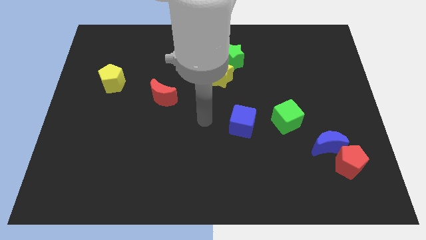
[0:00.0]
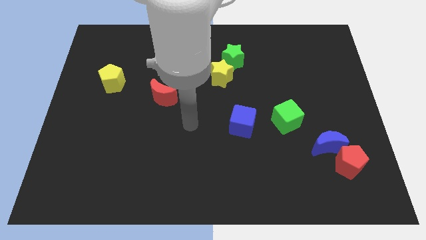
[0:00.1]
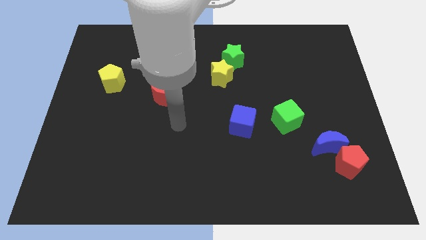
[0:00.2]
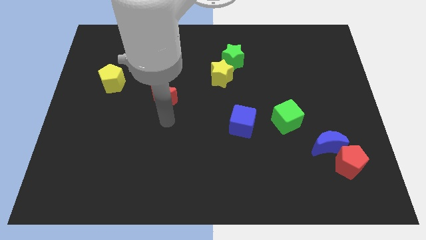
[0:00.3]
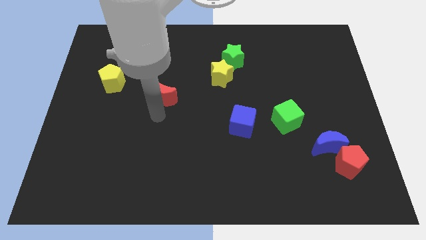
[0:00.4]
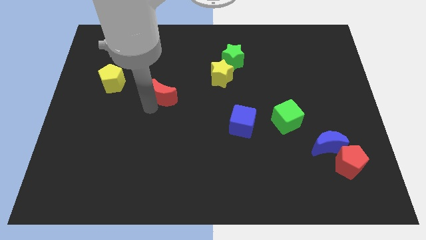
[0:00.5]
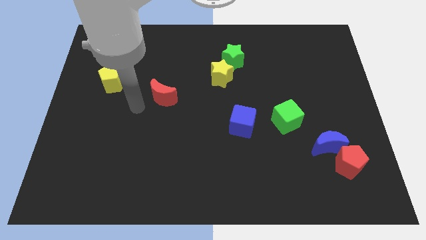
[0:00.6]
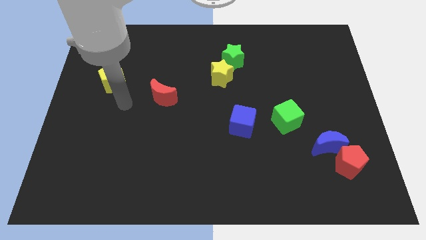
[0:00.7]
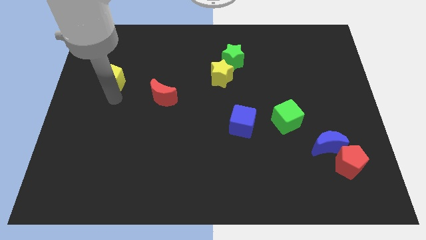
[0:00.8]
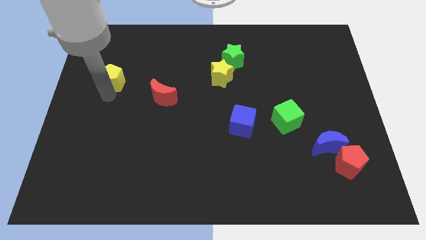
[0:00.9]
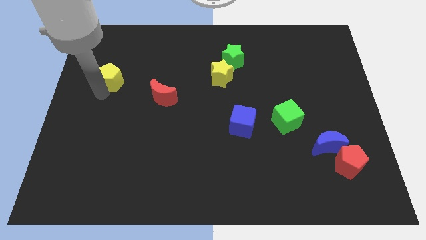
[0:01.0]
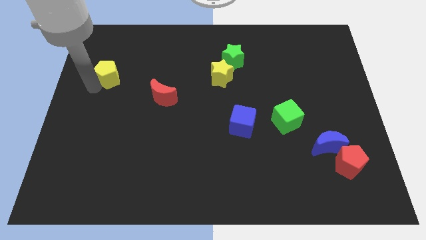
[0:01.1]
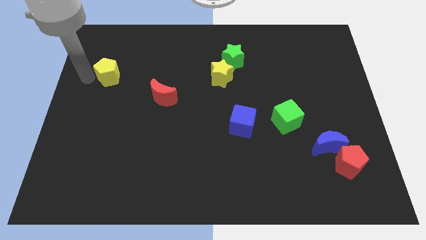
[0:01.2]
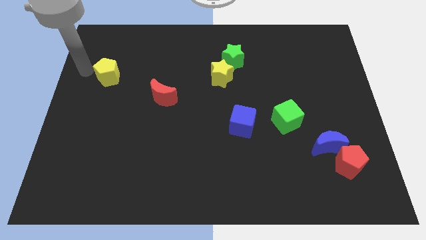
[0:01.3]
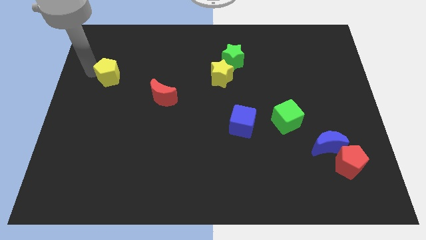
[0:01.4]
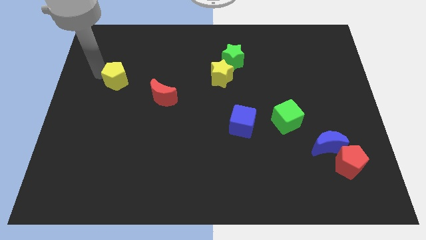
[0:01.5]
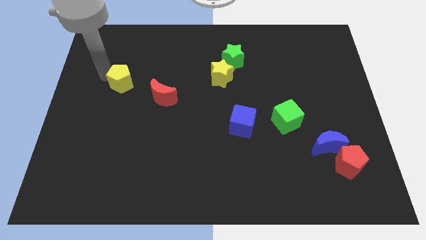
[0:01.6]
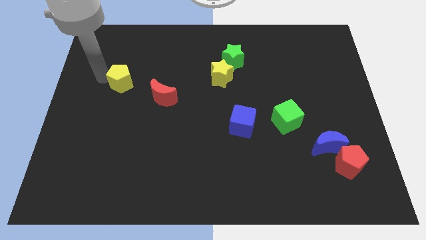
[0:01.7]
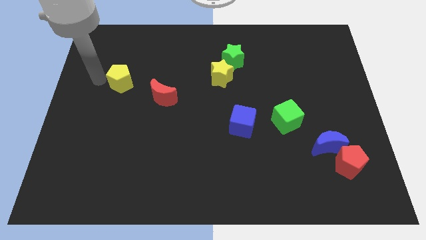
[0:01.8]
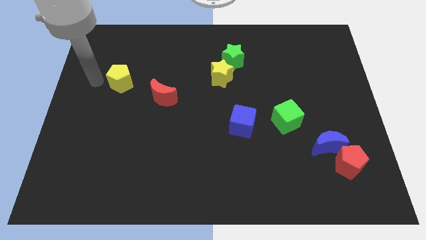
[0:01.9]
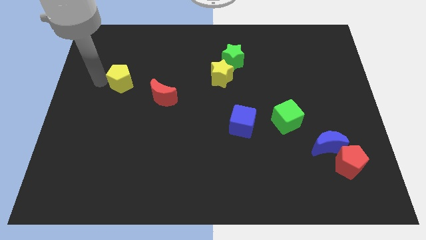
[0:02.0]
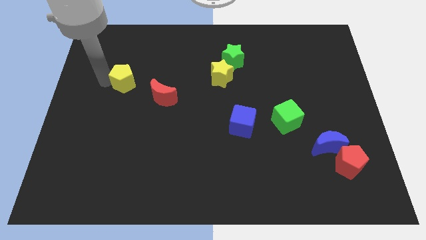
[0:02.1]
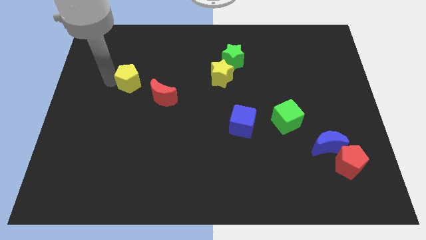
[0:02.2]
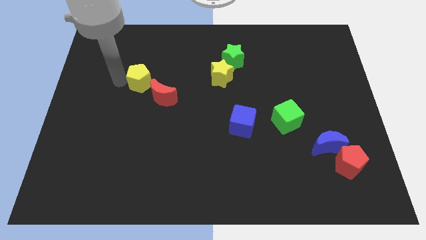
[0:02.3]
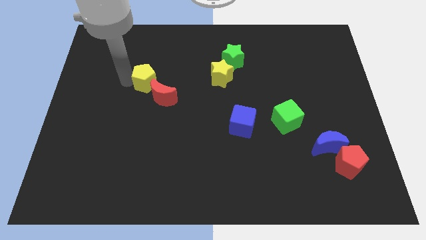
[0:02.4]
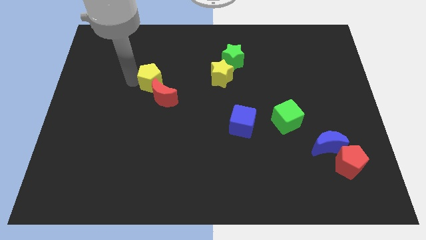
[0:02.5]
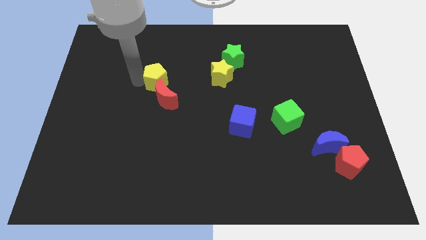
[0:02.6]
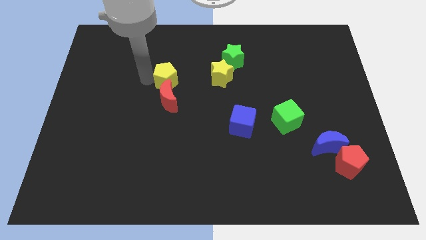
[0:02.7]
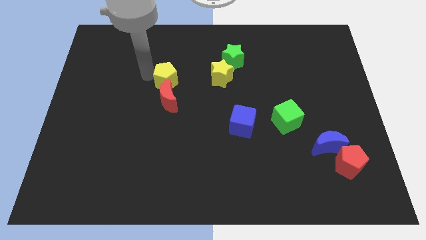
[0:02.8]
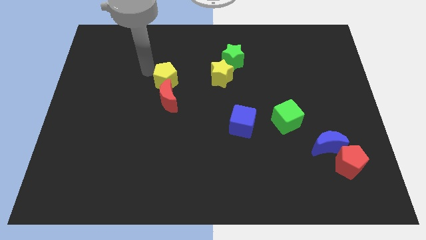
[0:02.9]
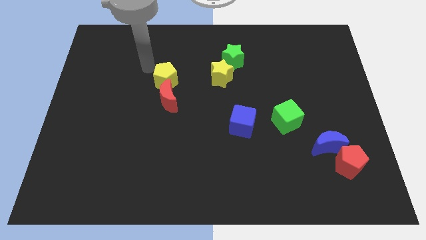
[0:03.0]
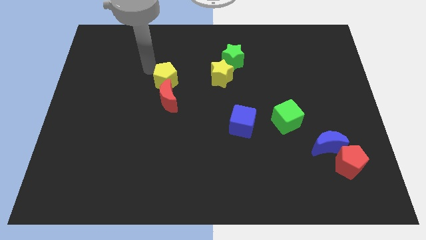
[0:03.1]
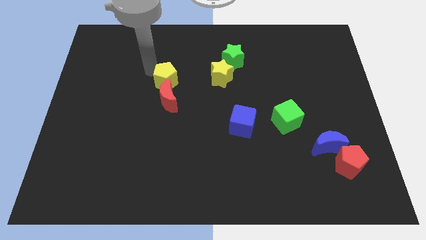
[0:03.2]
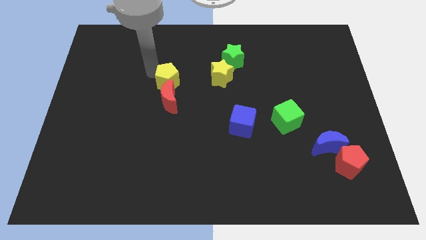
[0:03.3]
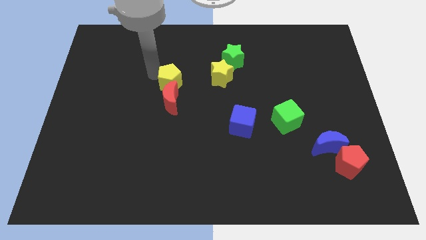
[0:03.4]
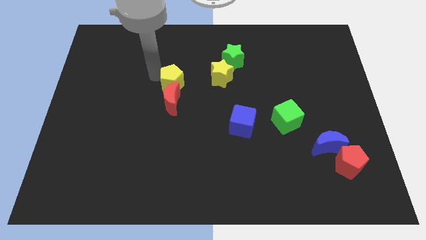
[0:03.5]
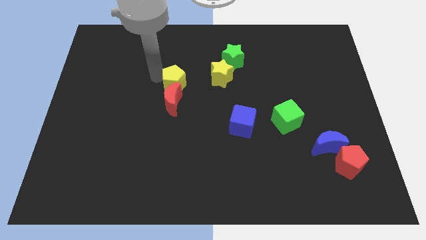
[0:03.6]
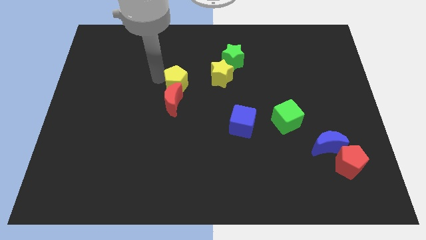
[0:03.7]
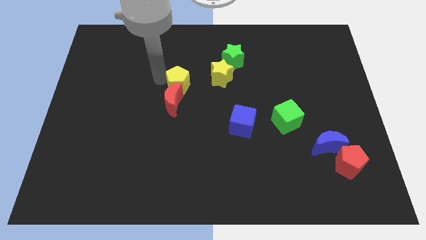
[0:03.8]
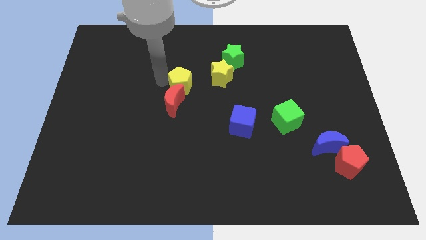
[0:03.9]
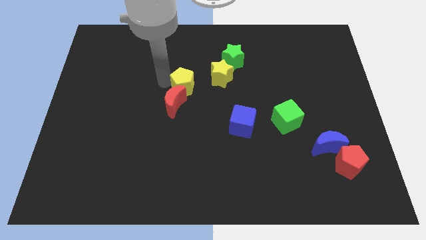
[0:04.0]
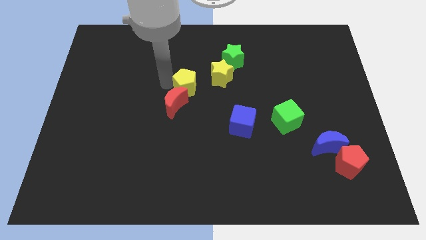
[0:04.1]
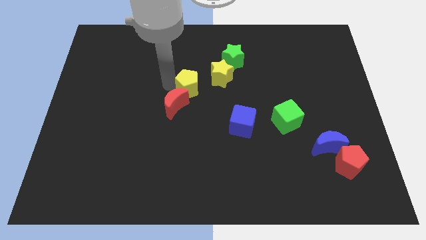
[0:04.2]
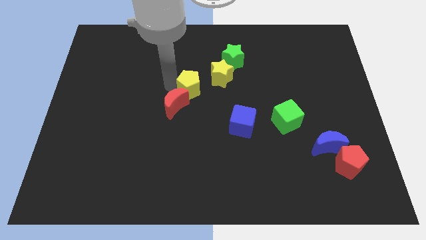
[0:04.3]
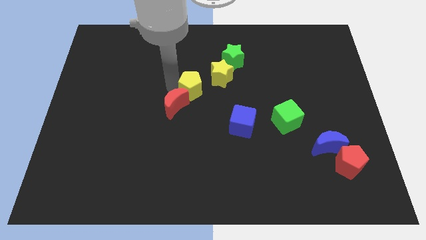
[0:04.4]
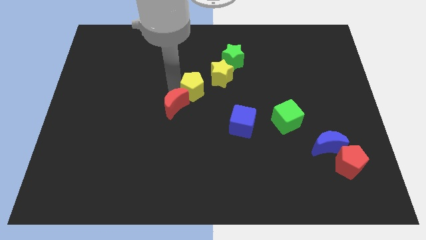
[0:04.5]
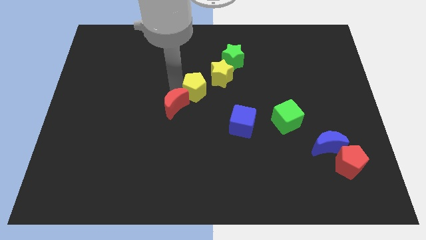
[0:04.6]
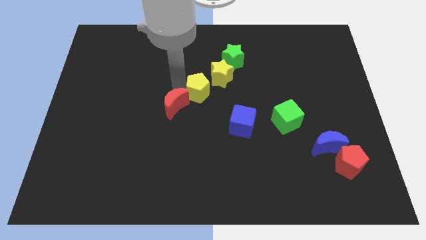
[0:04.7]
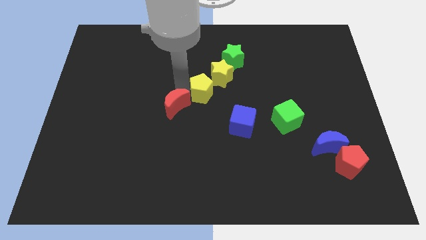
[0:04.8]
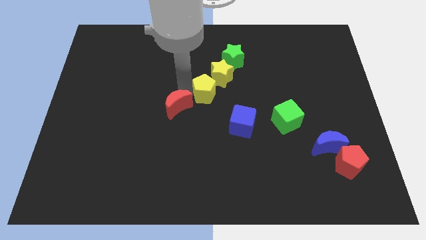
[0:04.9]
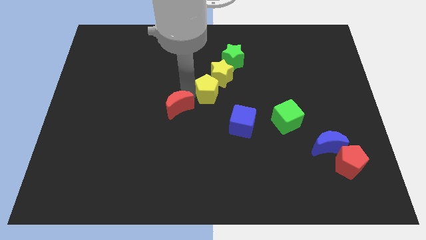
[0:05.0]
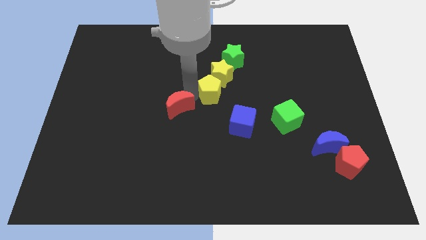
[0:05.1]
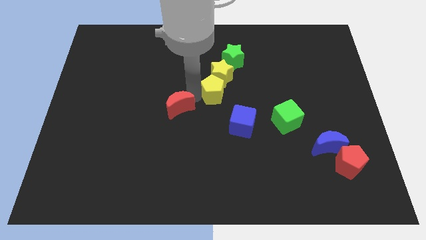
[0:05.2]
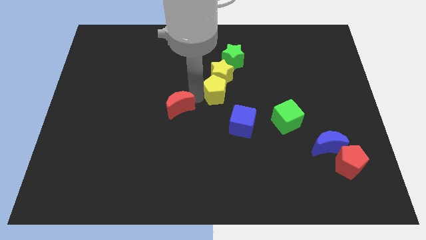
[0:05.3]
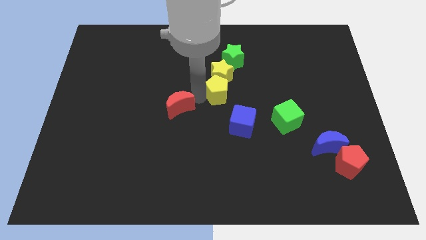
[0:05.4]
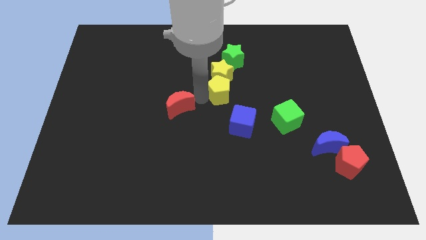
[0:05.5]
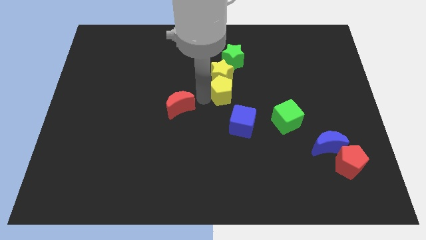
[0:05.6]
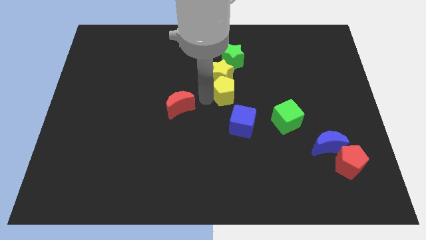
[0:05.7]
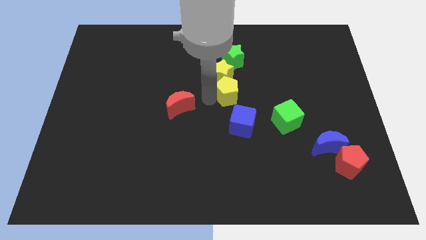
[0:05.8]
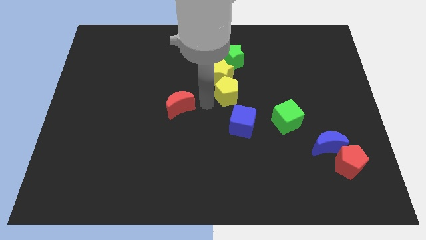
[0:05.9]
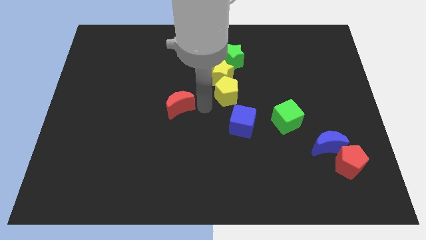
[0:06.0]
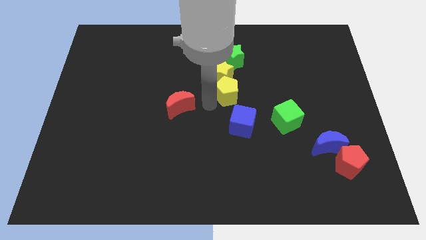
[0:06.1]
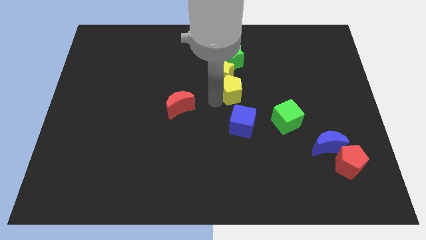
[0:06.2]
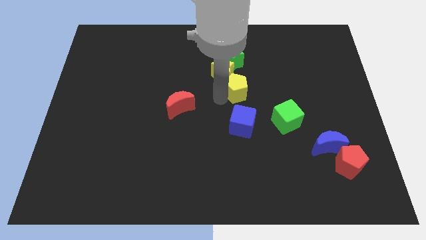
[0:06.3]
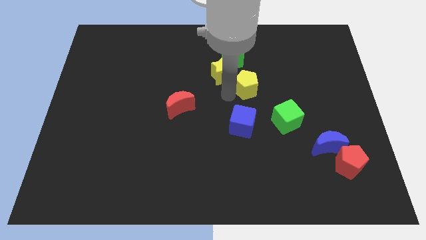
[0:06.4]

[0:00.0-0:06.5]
move the yellow pentagon just right of the yellow star
